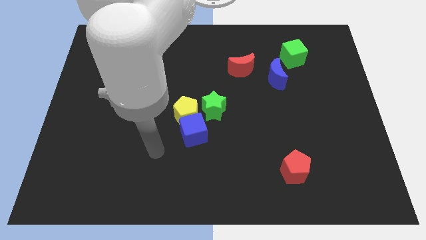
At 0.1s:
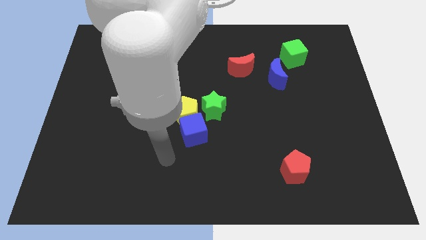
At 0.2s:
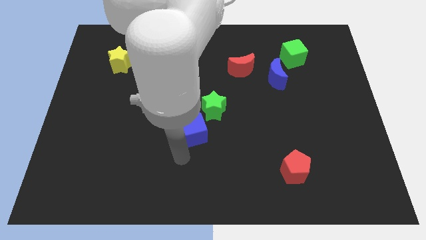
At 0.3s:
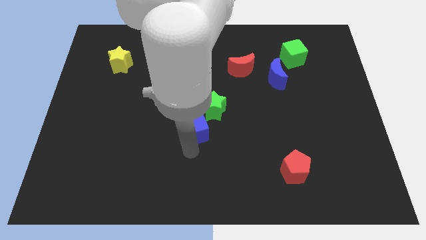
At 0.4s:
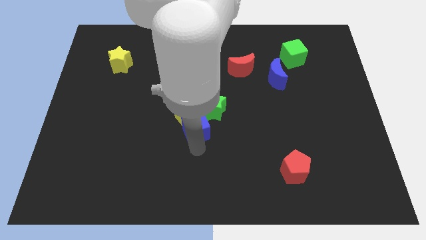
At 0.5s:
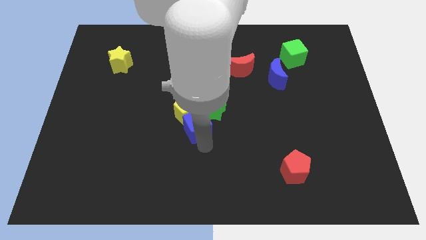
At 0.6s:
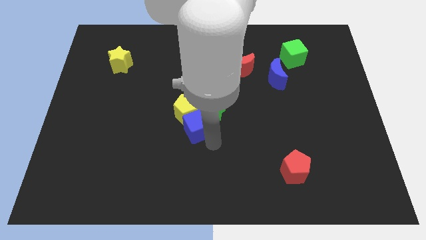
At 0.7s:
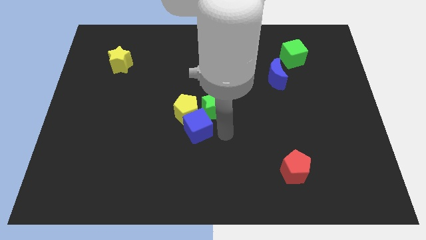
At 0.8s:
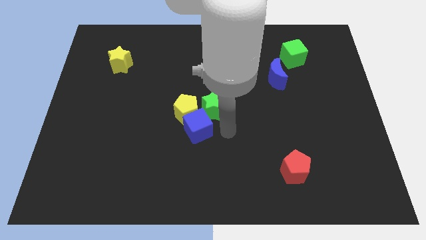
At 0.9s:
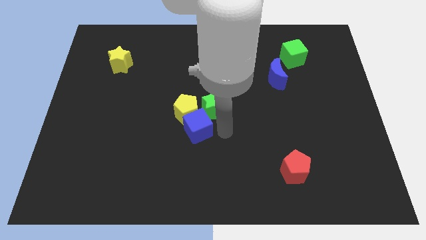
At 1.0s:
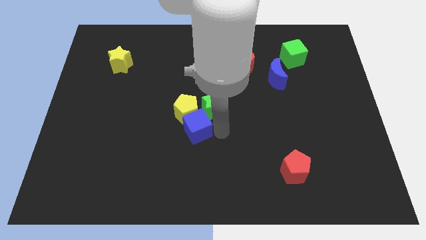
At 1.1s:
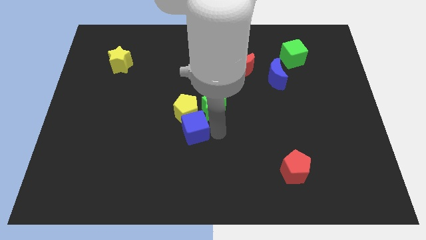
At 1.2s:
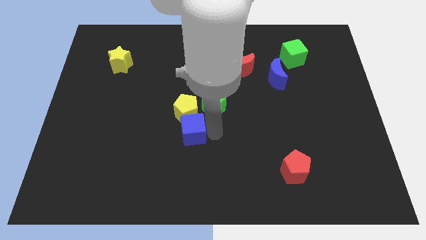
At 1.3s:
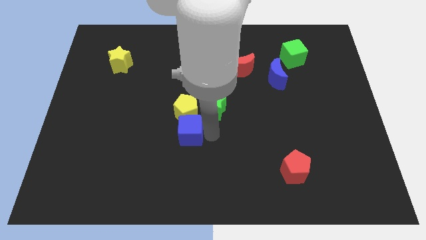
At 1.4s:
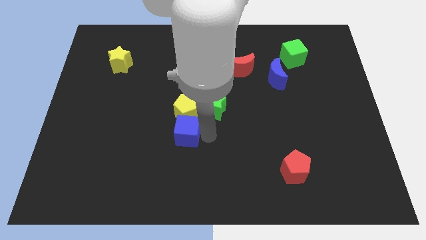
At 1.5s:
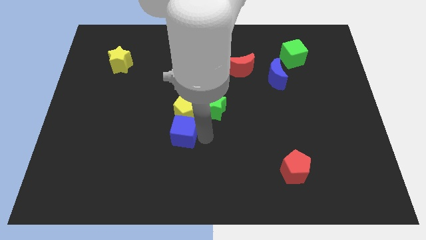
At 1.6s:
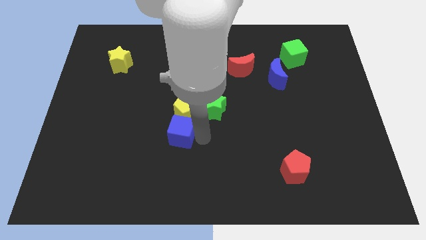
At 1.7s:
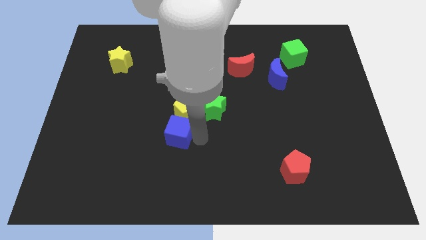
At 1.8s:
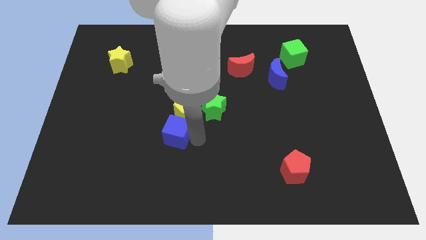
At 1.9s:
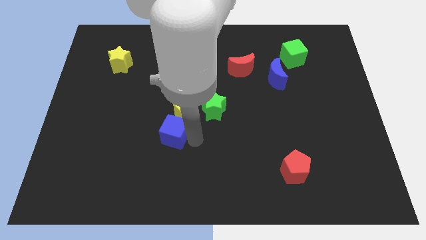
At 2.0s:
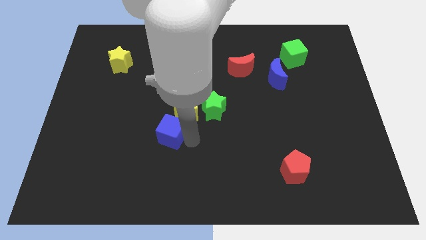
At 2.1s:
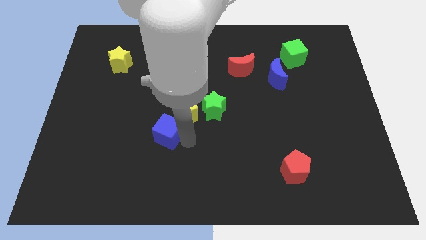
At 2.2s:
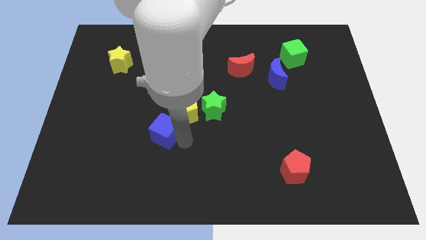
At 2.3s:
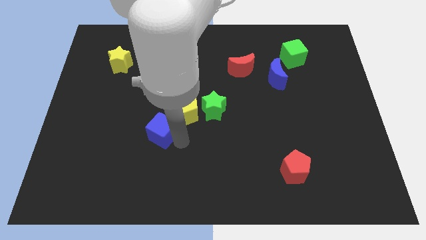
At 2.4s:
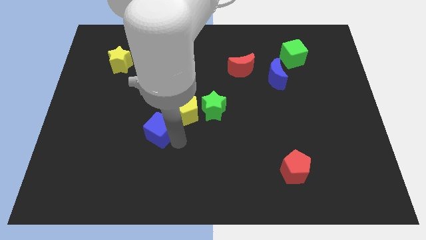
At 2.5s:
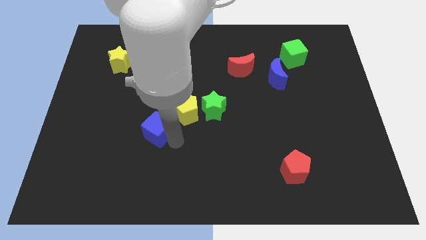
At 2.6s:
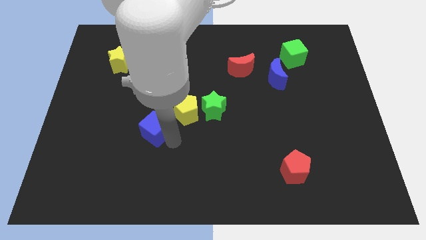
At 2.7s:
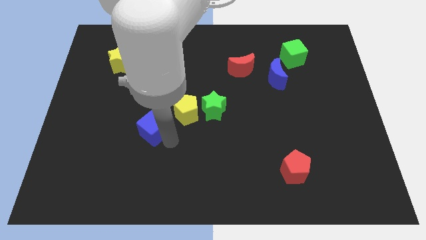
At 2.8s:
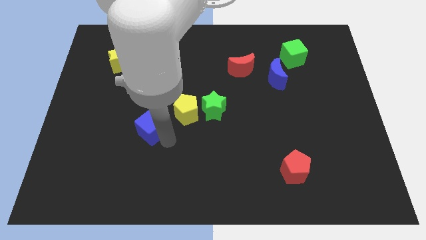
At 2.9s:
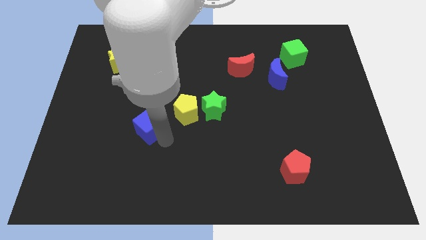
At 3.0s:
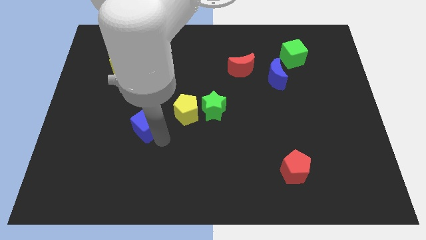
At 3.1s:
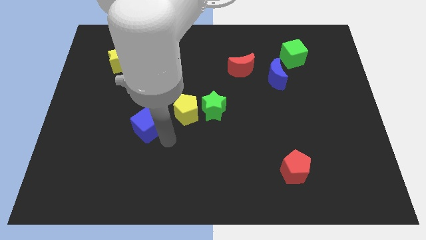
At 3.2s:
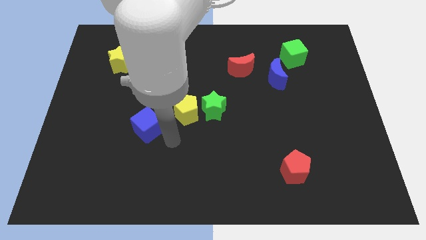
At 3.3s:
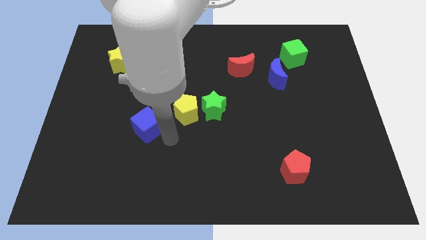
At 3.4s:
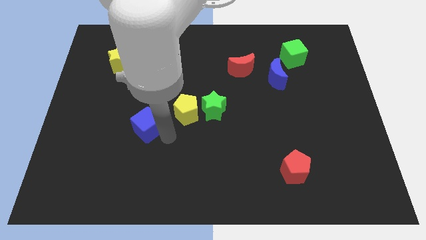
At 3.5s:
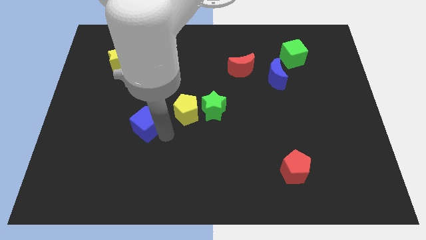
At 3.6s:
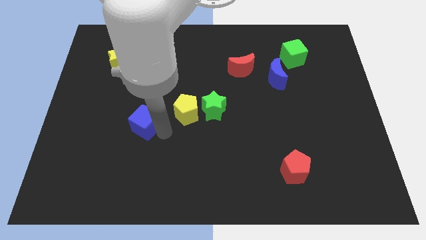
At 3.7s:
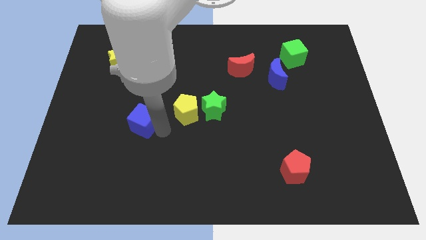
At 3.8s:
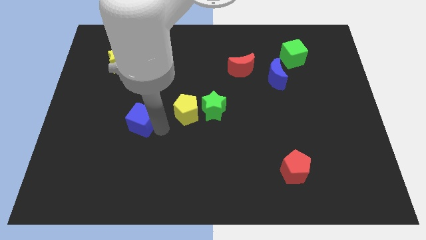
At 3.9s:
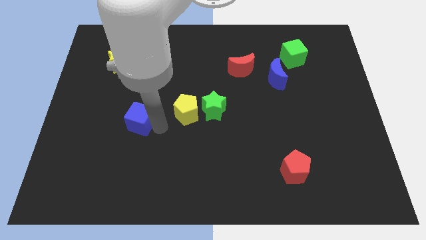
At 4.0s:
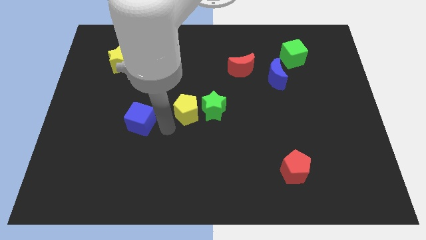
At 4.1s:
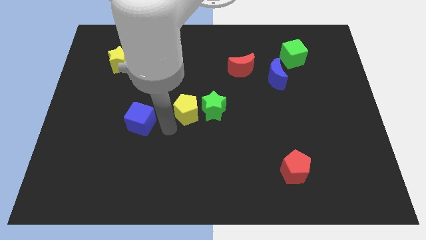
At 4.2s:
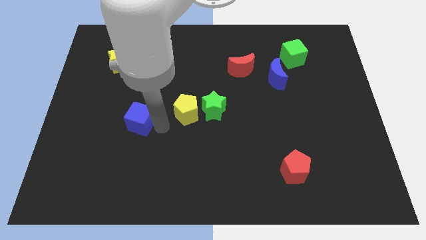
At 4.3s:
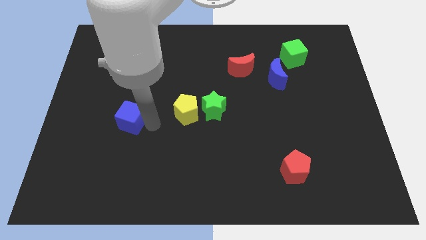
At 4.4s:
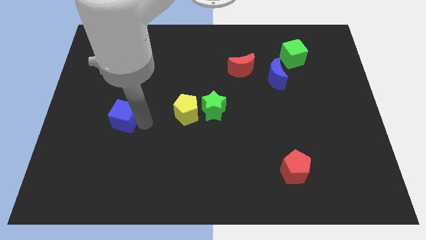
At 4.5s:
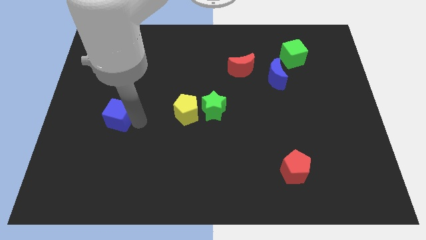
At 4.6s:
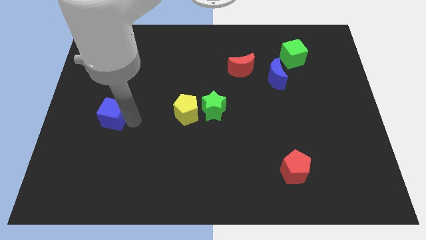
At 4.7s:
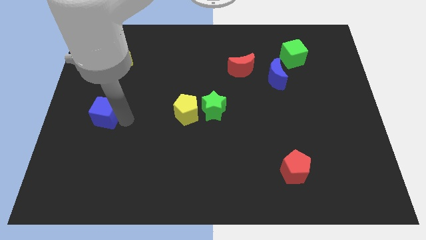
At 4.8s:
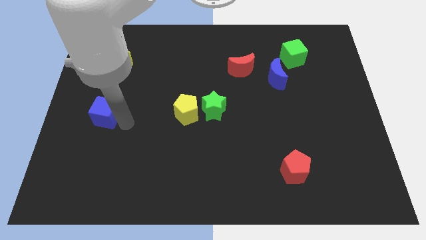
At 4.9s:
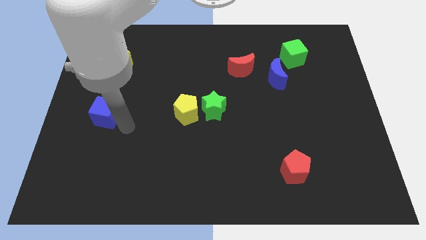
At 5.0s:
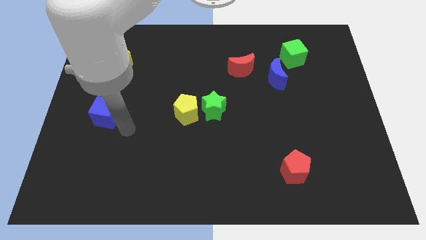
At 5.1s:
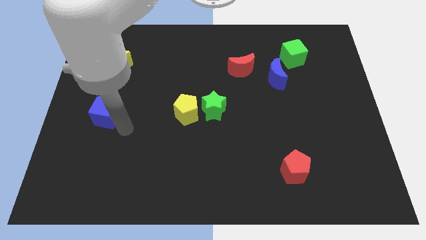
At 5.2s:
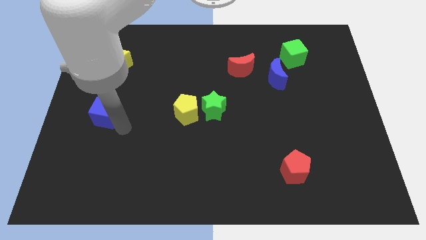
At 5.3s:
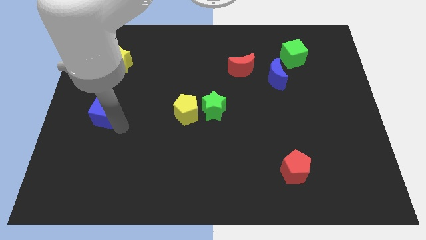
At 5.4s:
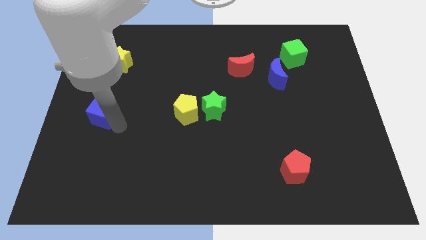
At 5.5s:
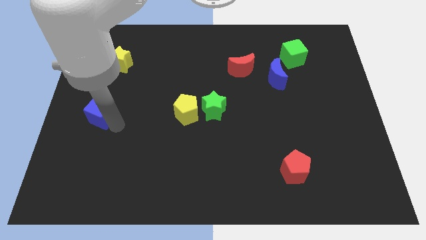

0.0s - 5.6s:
move the blue cube to the left side

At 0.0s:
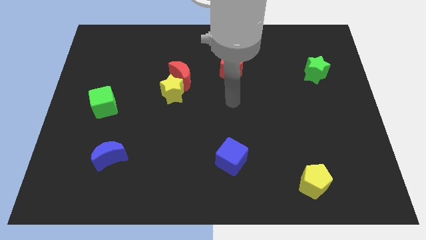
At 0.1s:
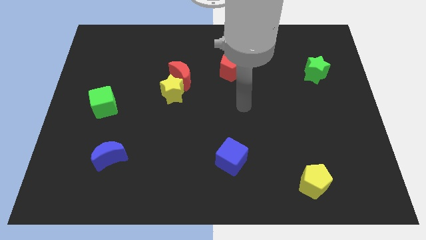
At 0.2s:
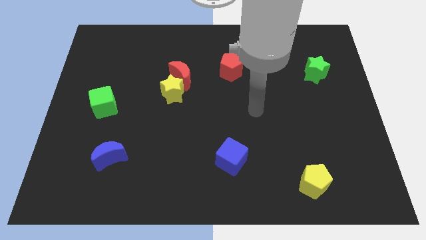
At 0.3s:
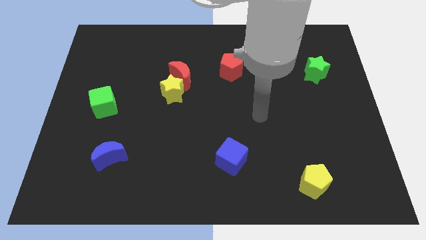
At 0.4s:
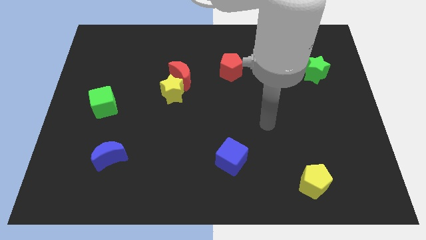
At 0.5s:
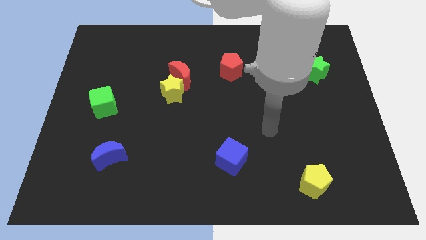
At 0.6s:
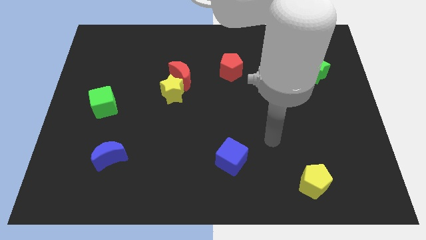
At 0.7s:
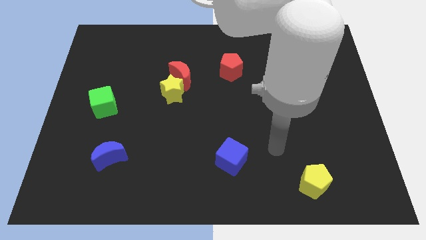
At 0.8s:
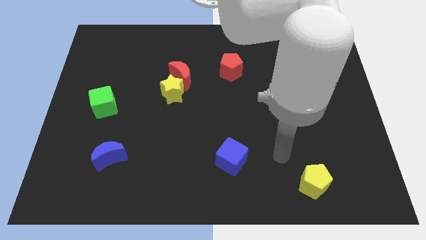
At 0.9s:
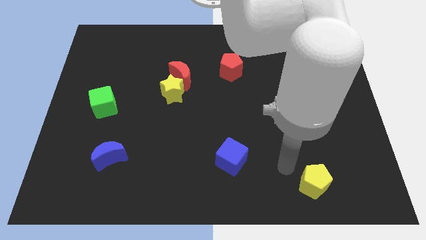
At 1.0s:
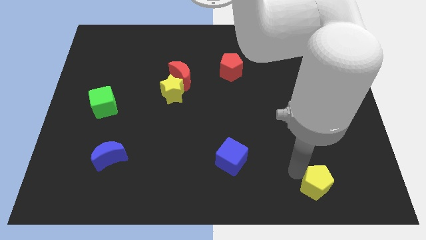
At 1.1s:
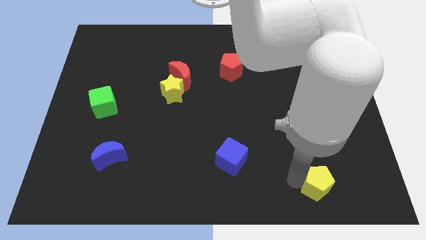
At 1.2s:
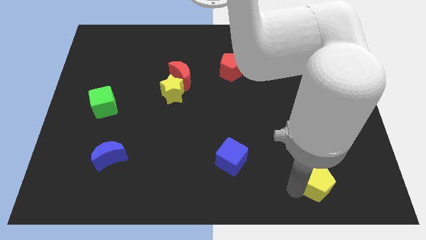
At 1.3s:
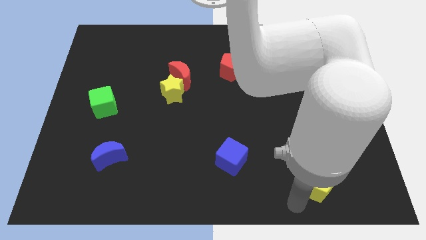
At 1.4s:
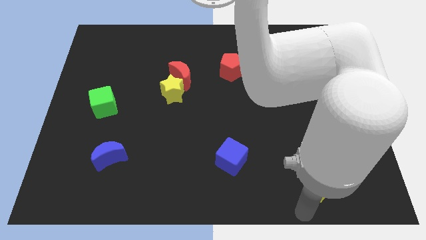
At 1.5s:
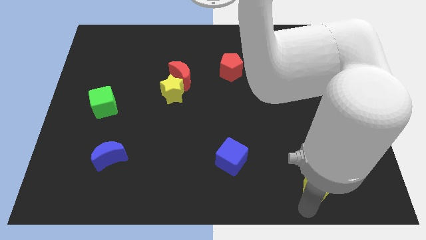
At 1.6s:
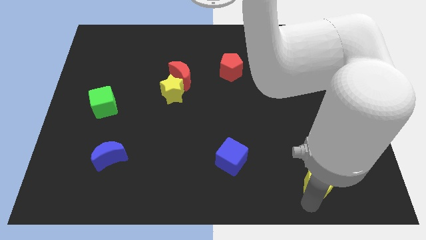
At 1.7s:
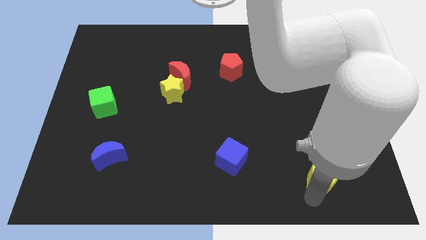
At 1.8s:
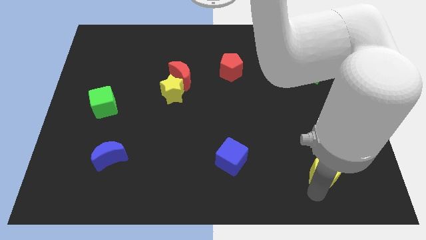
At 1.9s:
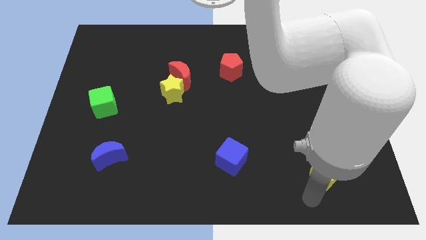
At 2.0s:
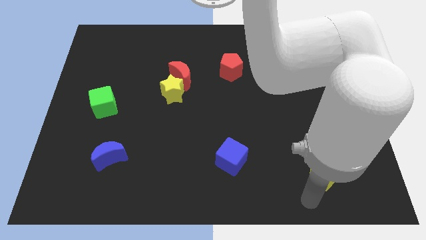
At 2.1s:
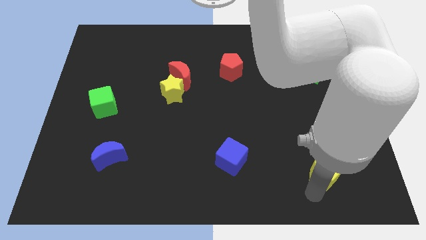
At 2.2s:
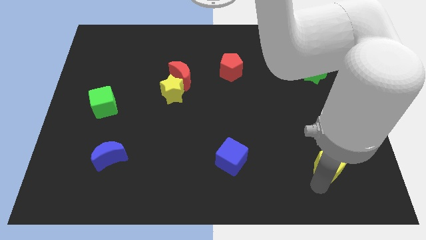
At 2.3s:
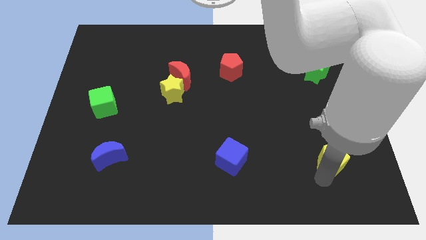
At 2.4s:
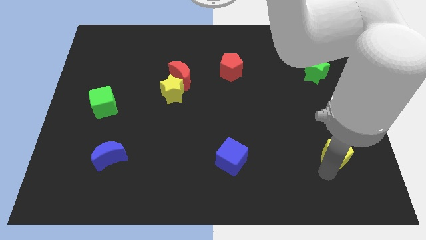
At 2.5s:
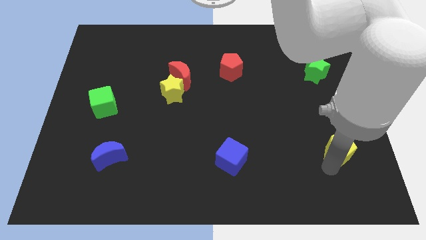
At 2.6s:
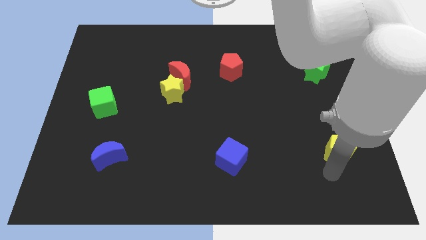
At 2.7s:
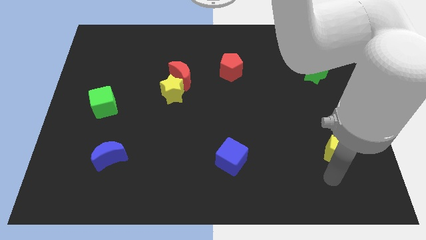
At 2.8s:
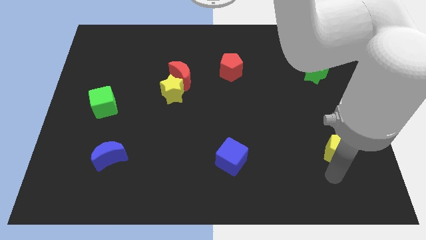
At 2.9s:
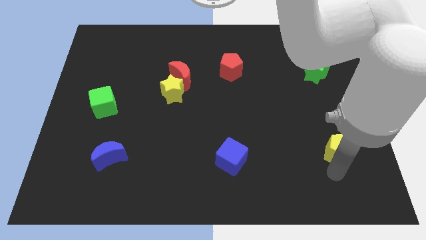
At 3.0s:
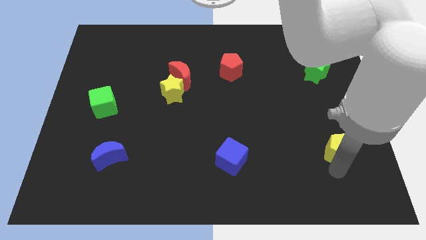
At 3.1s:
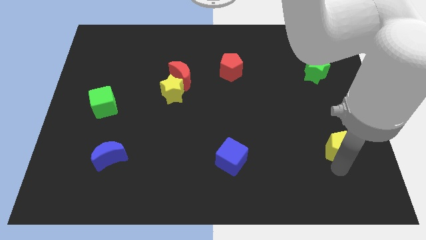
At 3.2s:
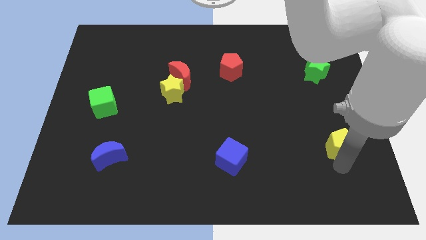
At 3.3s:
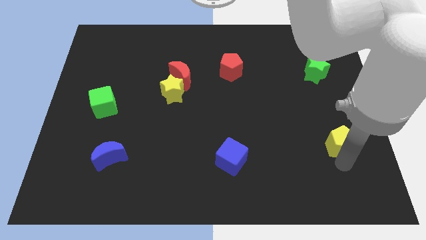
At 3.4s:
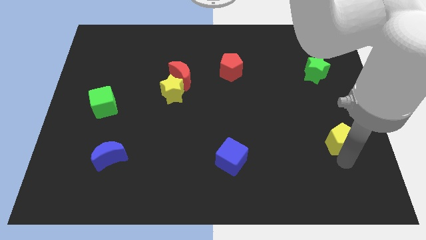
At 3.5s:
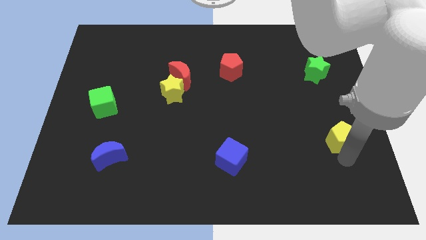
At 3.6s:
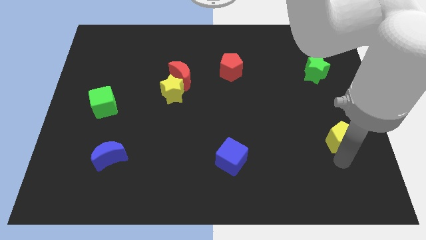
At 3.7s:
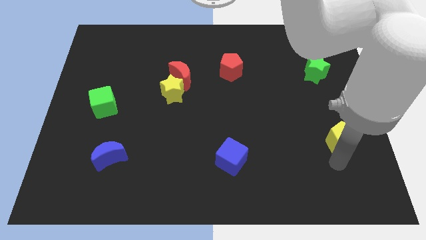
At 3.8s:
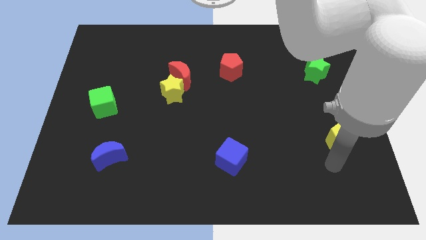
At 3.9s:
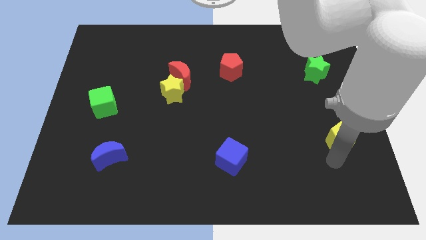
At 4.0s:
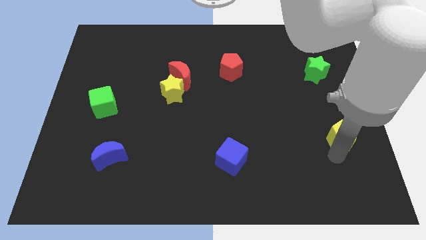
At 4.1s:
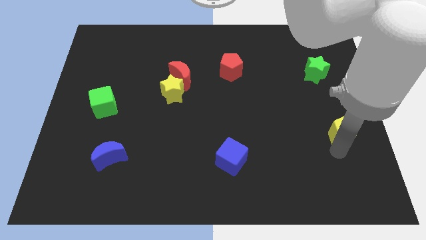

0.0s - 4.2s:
move the yellow pentagon to the center right
